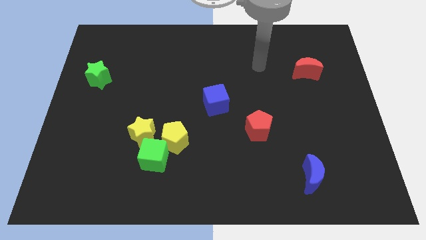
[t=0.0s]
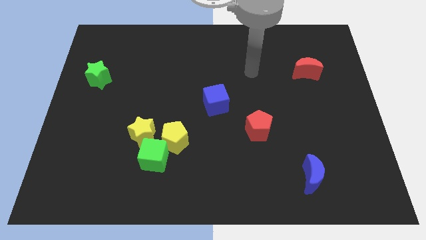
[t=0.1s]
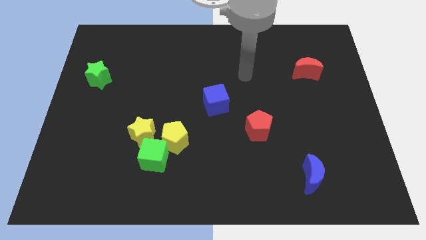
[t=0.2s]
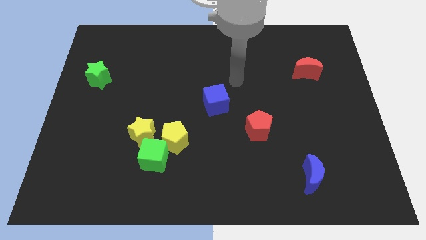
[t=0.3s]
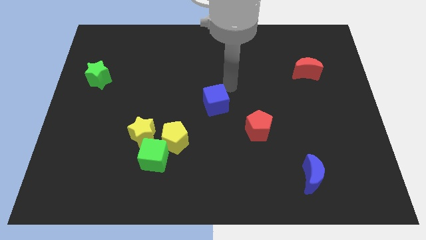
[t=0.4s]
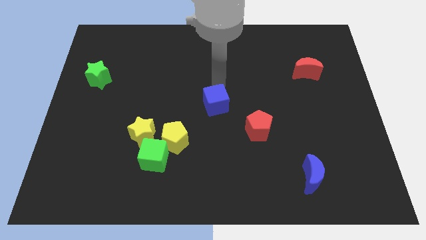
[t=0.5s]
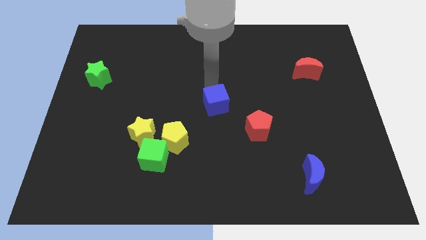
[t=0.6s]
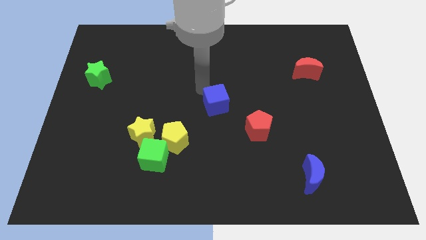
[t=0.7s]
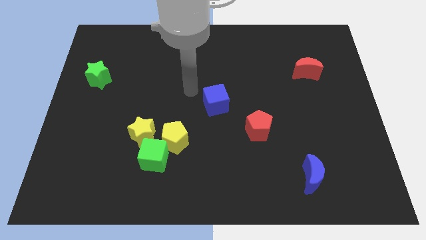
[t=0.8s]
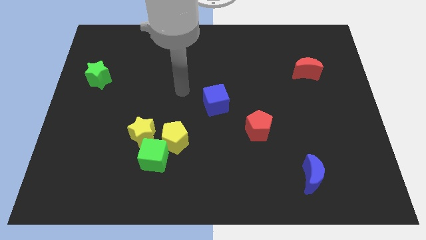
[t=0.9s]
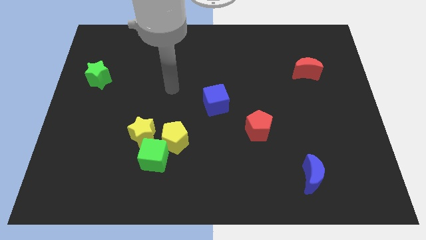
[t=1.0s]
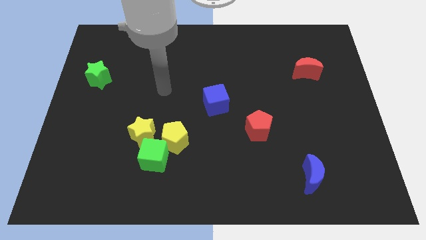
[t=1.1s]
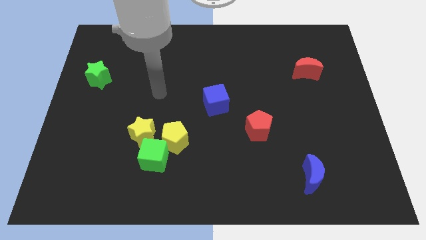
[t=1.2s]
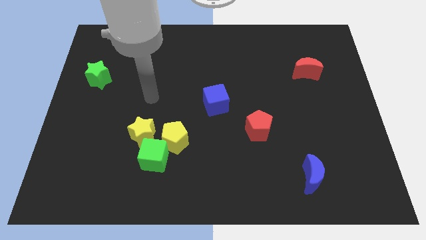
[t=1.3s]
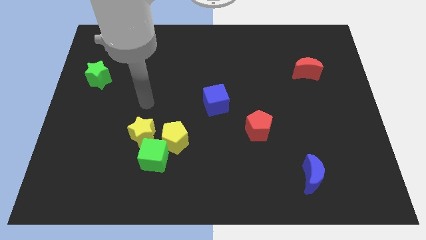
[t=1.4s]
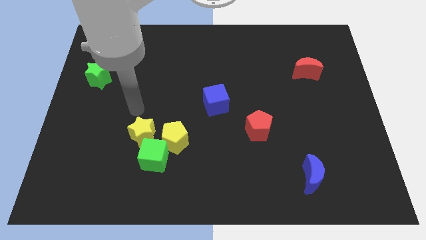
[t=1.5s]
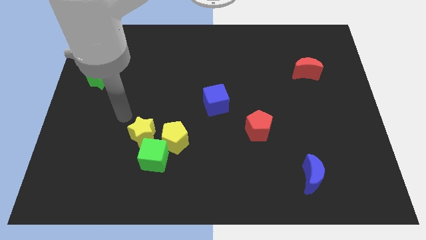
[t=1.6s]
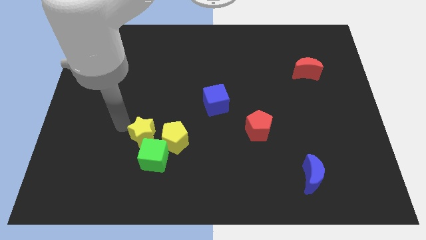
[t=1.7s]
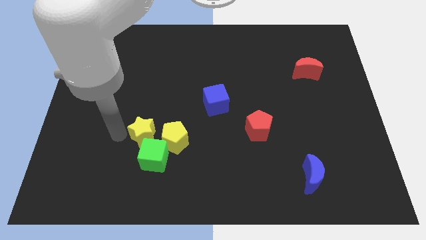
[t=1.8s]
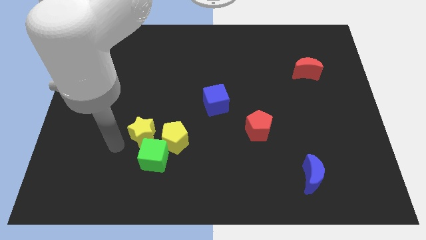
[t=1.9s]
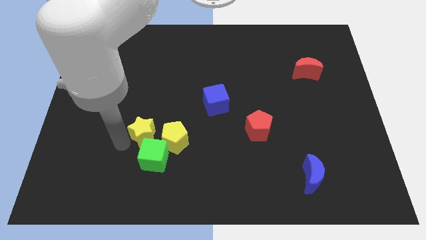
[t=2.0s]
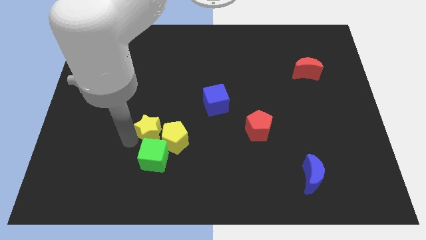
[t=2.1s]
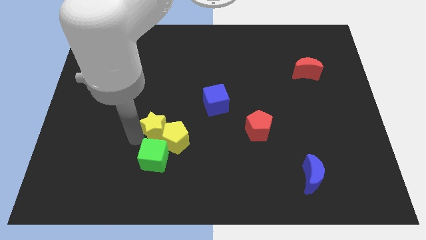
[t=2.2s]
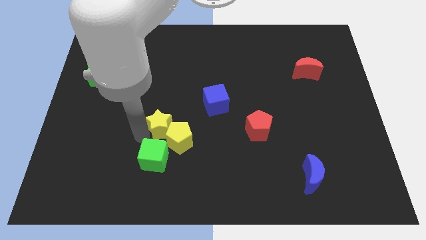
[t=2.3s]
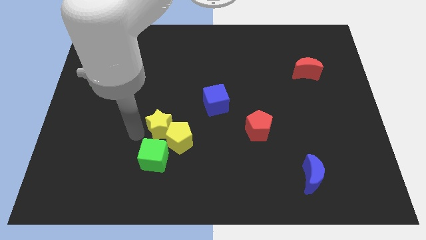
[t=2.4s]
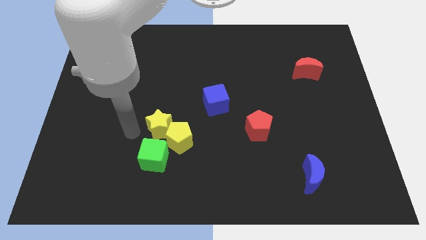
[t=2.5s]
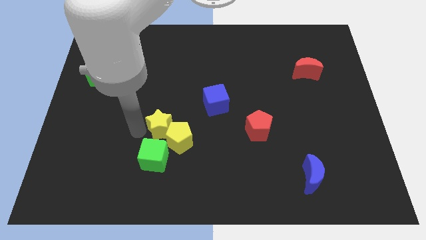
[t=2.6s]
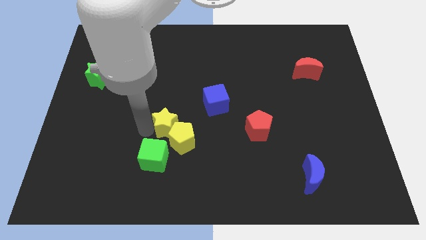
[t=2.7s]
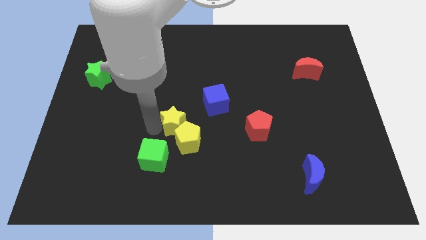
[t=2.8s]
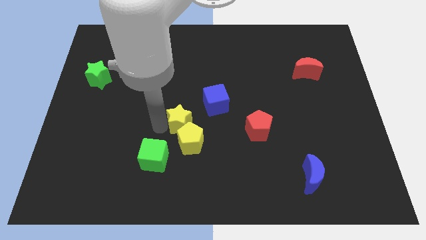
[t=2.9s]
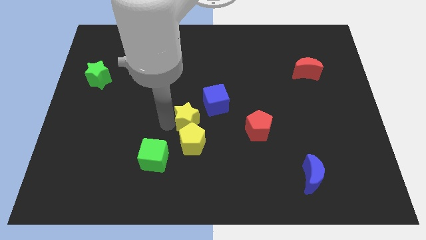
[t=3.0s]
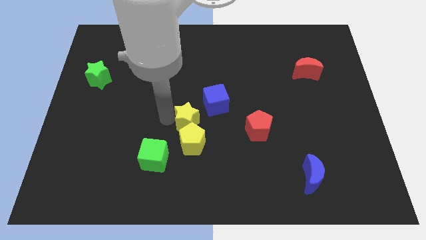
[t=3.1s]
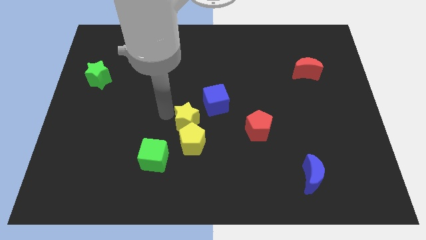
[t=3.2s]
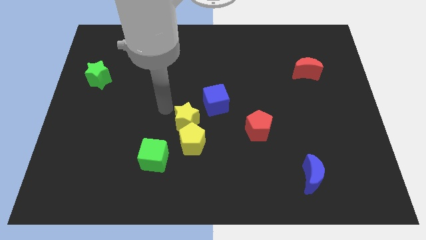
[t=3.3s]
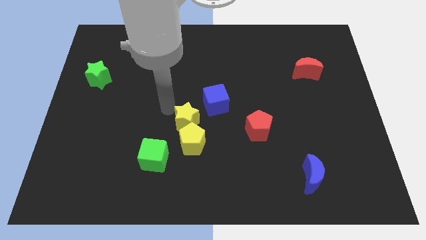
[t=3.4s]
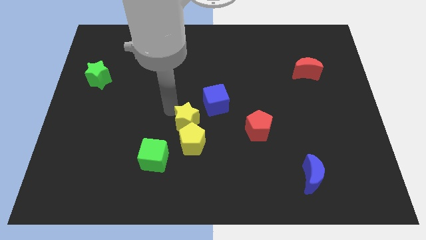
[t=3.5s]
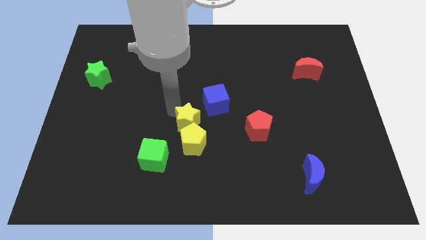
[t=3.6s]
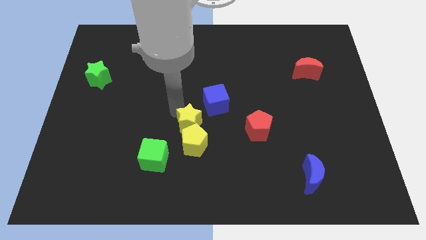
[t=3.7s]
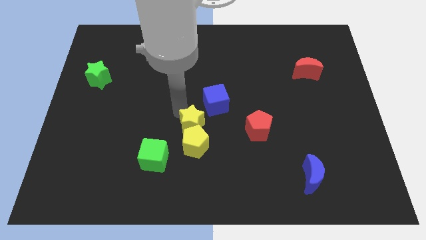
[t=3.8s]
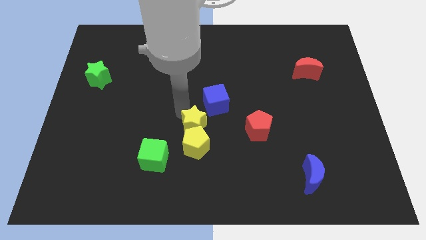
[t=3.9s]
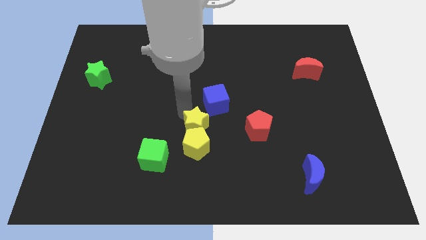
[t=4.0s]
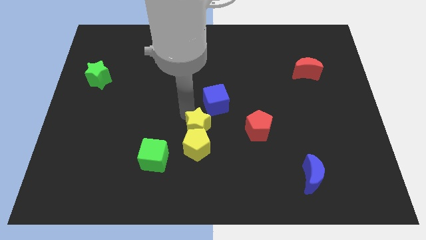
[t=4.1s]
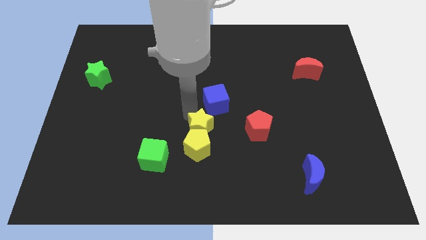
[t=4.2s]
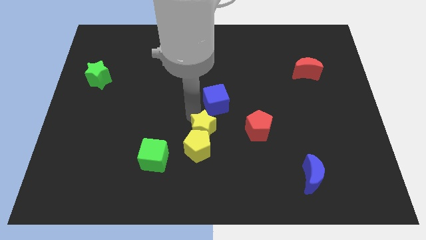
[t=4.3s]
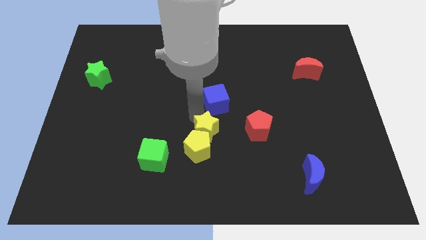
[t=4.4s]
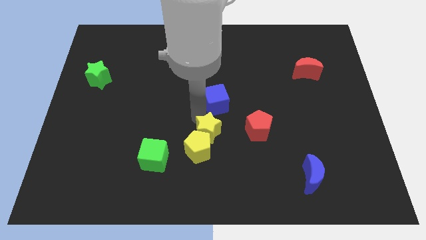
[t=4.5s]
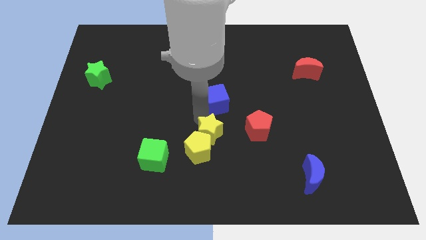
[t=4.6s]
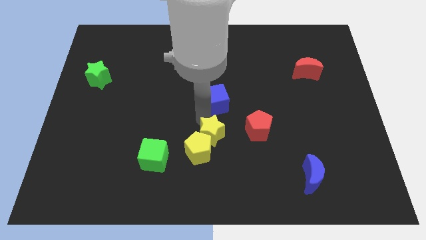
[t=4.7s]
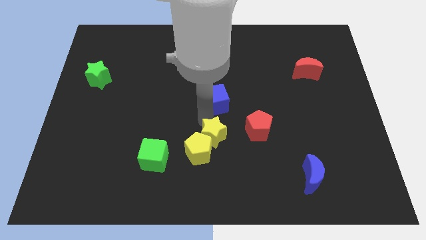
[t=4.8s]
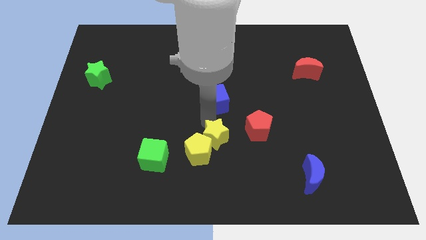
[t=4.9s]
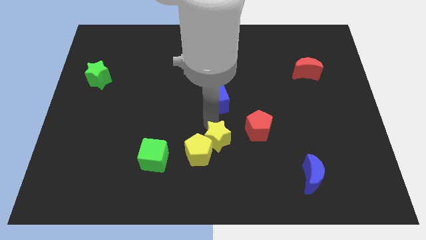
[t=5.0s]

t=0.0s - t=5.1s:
push the yellow star to the bottom left side of the red pentagon

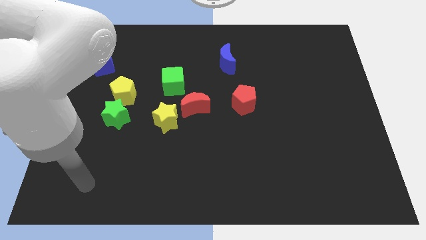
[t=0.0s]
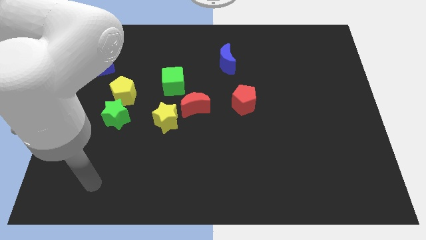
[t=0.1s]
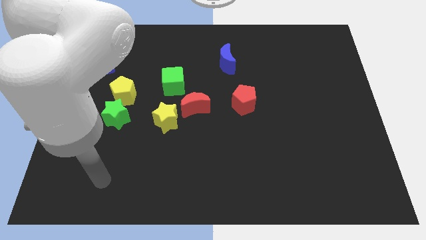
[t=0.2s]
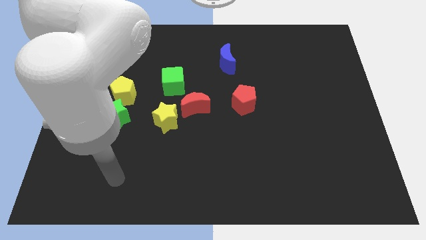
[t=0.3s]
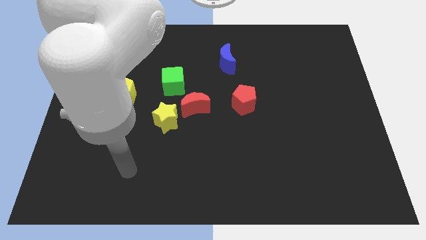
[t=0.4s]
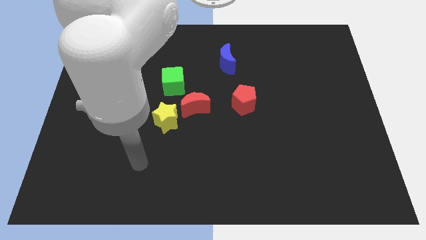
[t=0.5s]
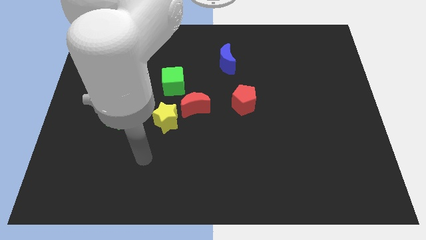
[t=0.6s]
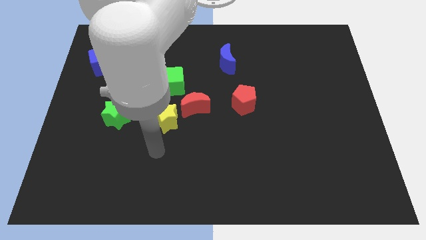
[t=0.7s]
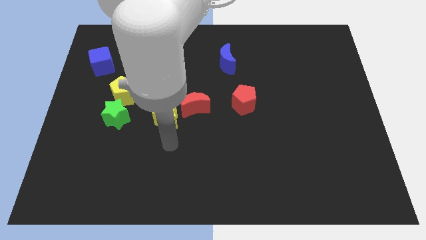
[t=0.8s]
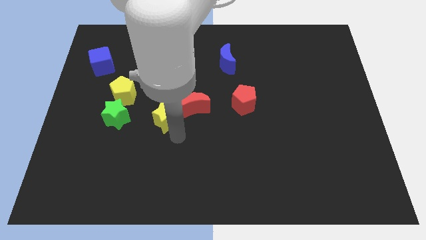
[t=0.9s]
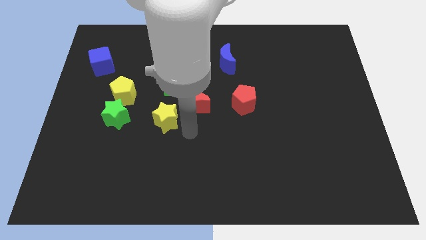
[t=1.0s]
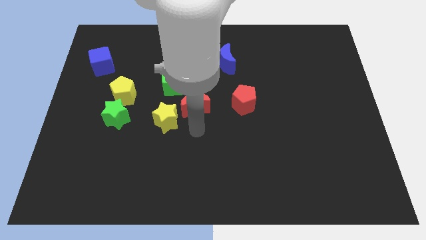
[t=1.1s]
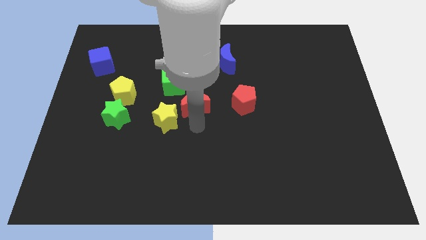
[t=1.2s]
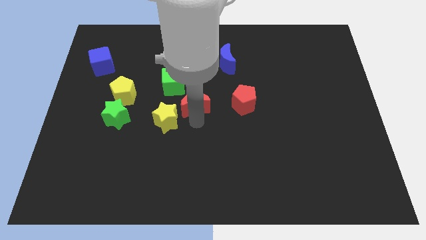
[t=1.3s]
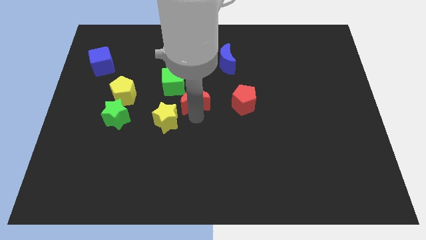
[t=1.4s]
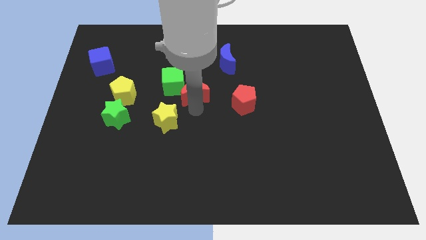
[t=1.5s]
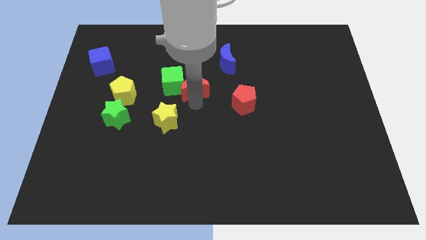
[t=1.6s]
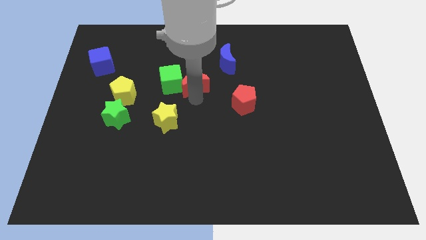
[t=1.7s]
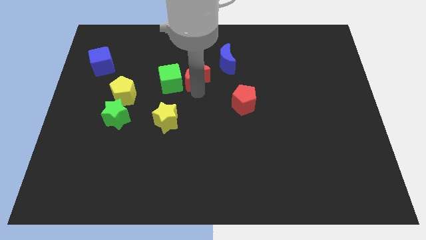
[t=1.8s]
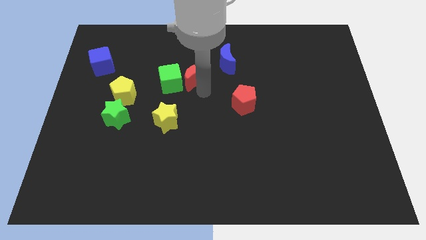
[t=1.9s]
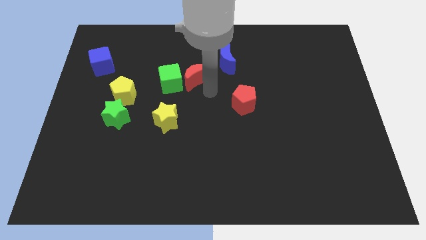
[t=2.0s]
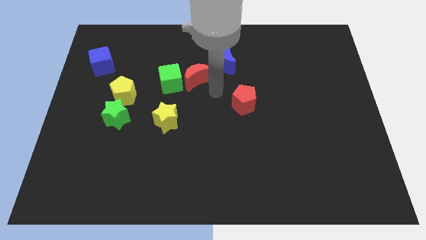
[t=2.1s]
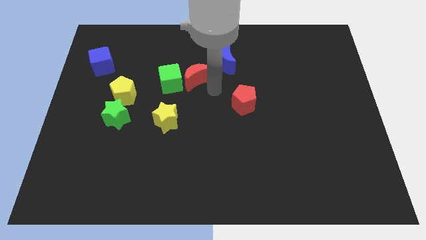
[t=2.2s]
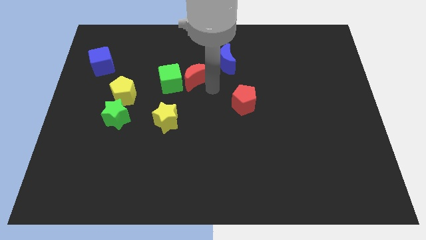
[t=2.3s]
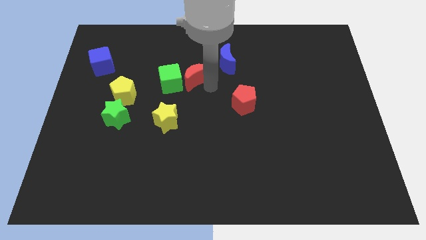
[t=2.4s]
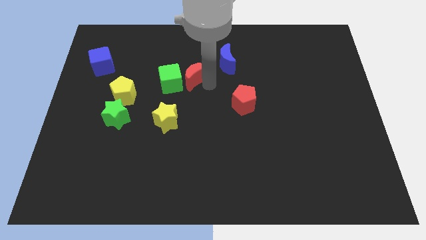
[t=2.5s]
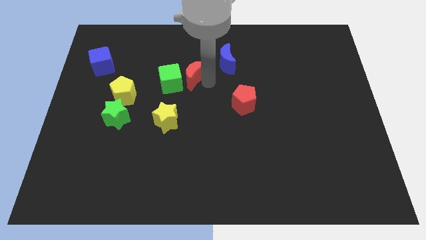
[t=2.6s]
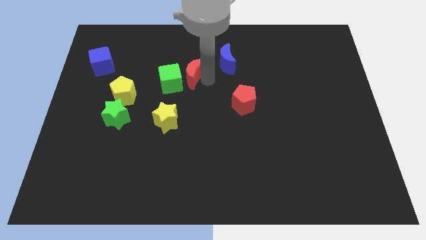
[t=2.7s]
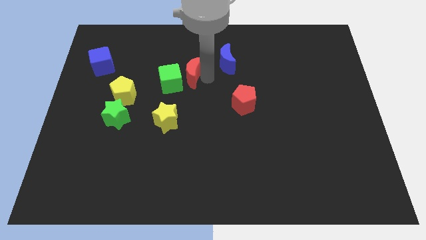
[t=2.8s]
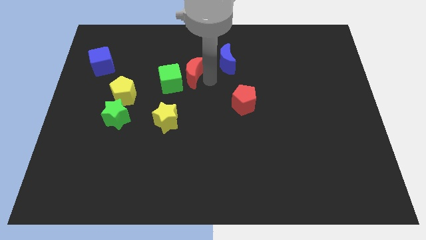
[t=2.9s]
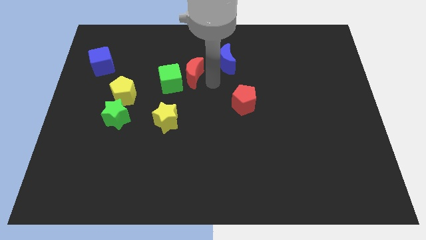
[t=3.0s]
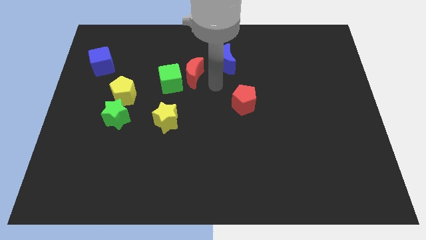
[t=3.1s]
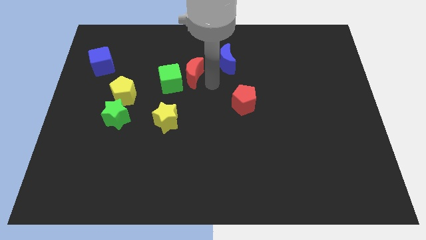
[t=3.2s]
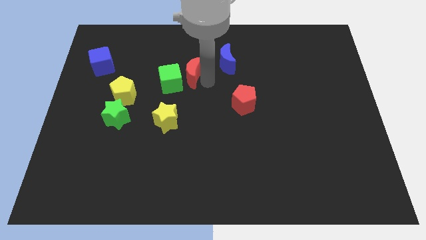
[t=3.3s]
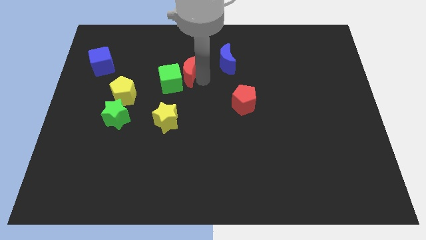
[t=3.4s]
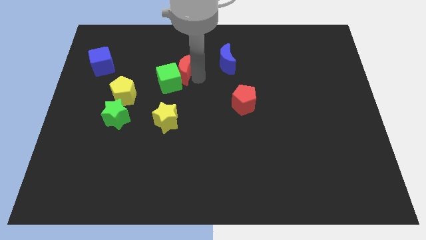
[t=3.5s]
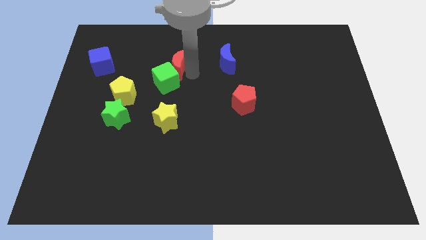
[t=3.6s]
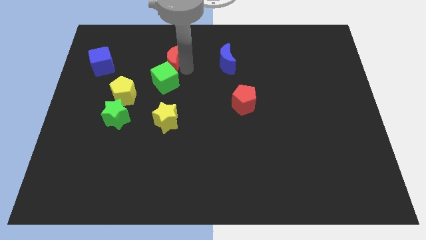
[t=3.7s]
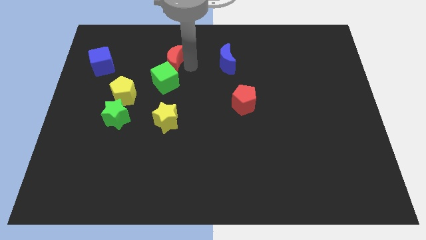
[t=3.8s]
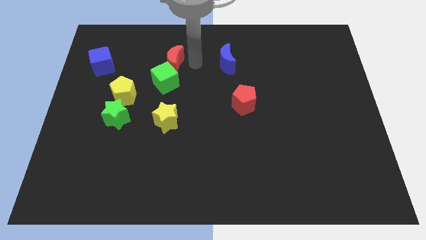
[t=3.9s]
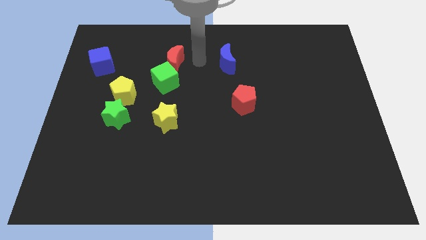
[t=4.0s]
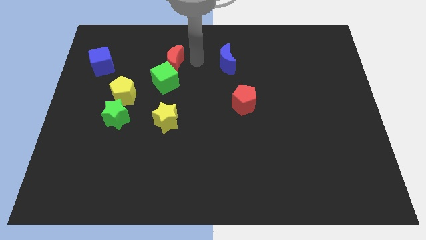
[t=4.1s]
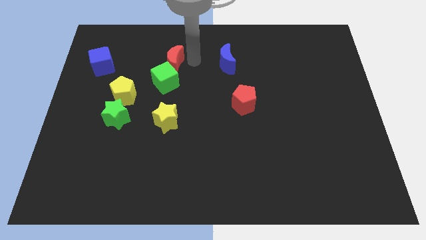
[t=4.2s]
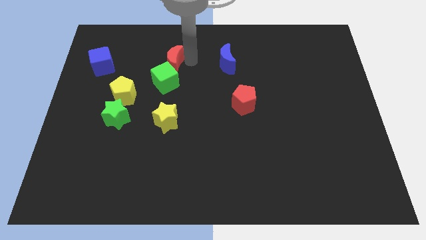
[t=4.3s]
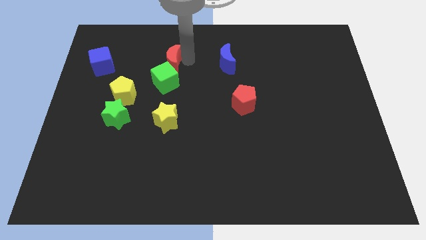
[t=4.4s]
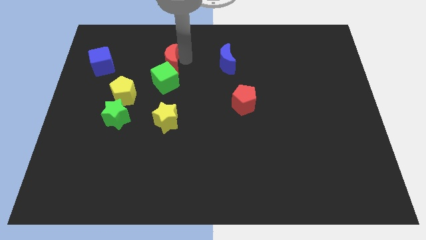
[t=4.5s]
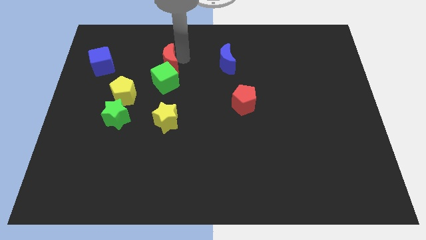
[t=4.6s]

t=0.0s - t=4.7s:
push the red moon to the top left side of the green cube
